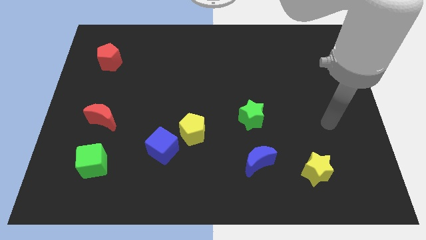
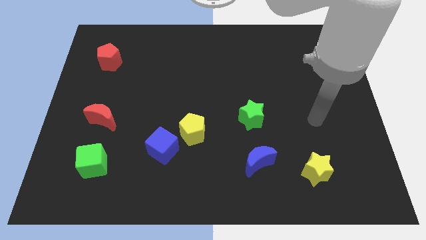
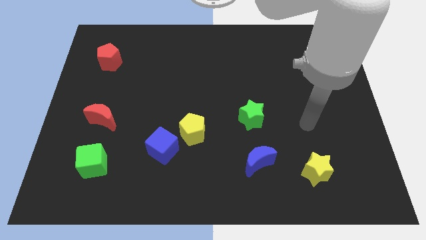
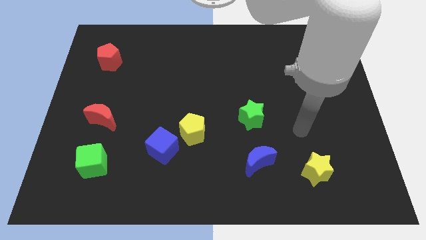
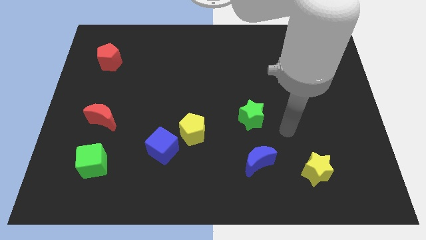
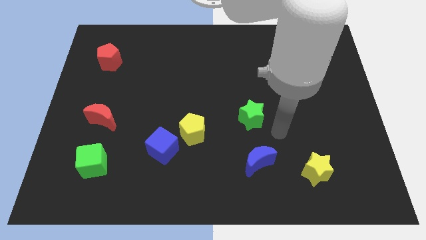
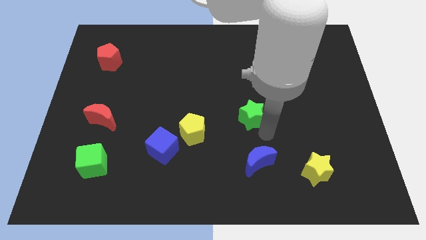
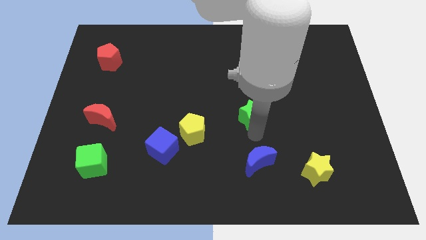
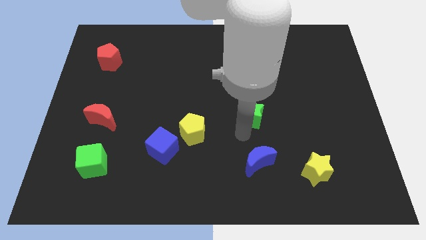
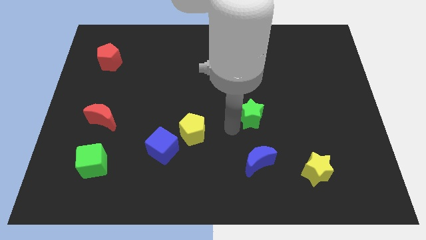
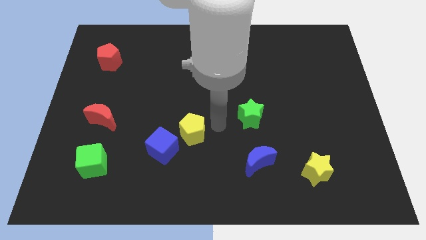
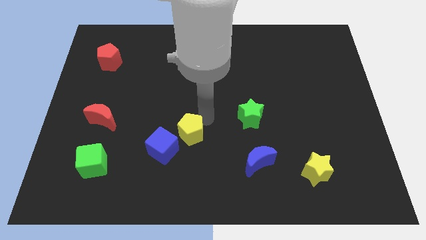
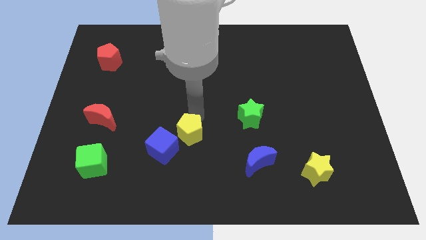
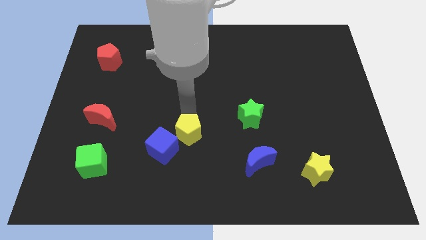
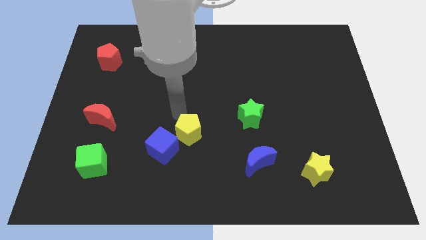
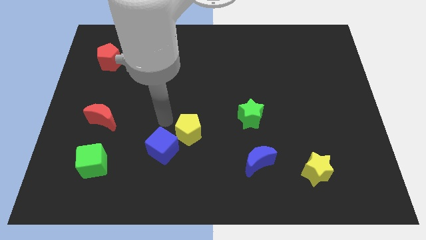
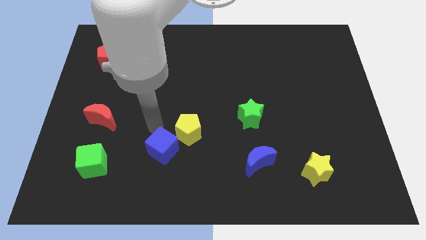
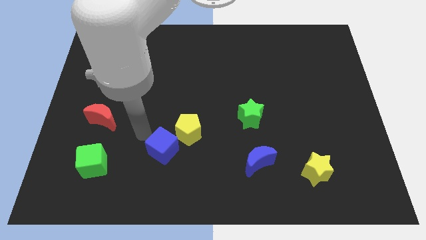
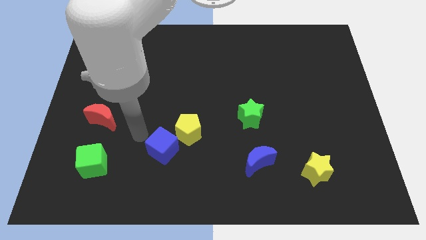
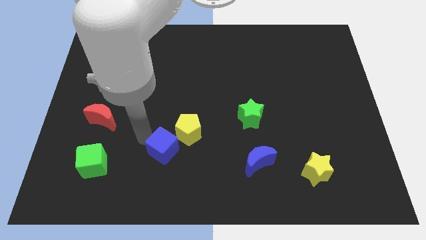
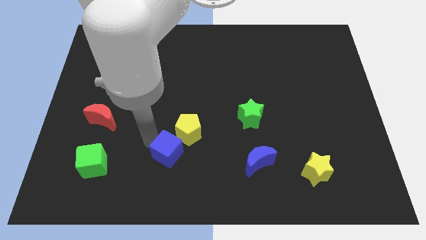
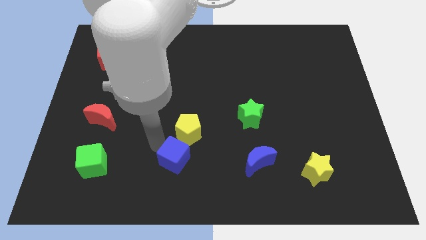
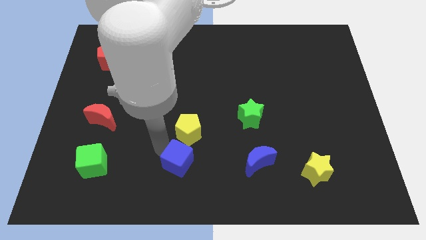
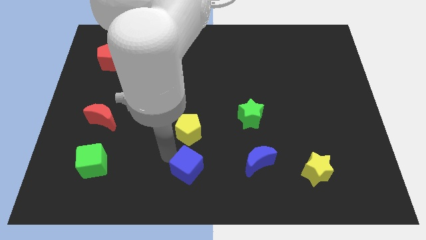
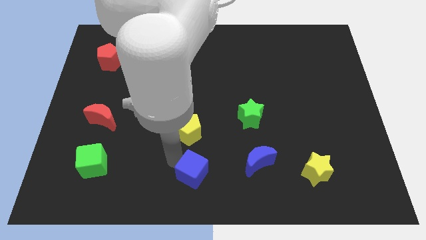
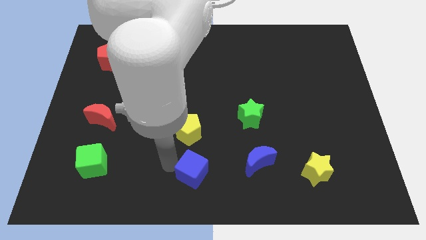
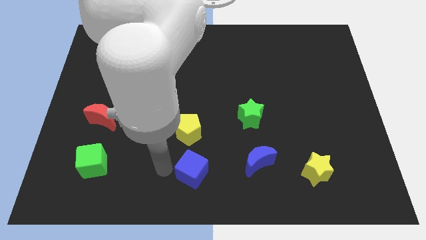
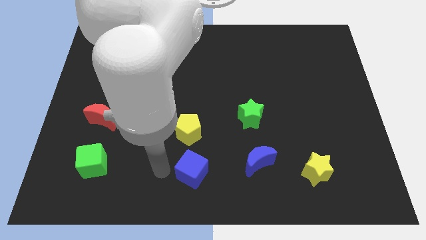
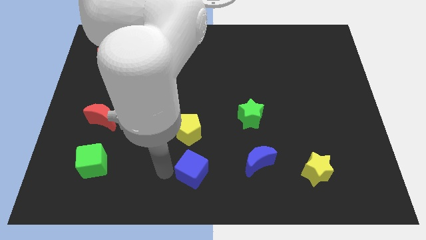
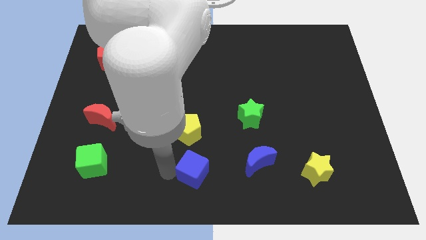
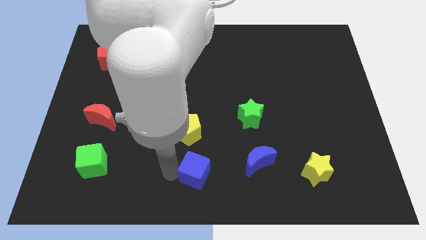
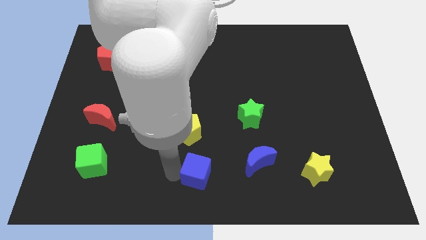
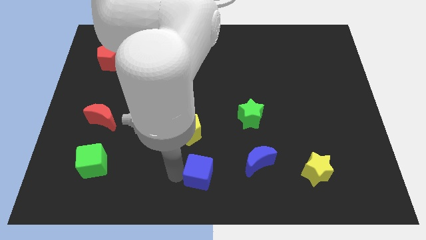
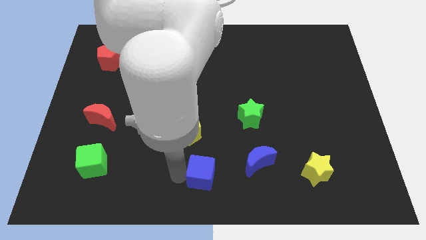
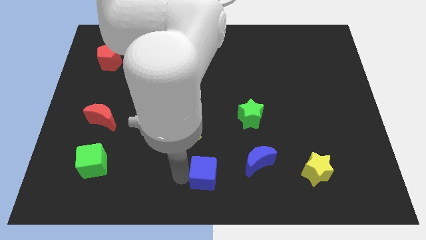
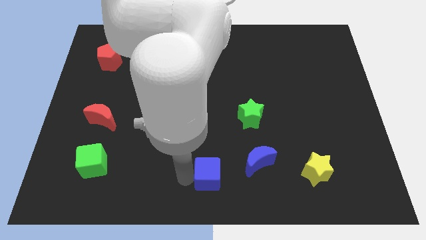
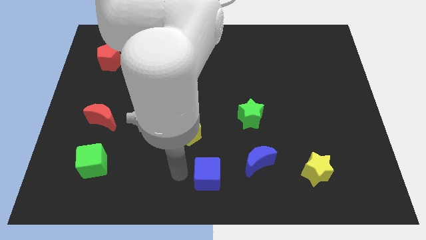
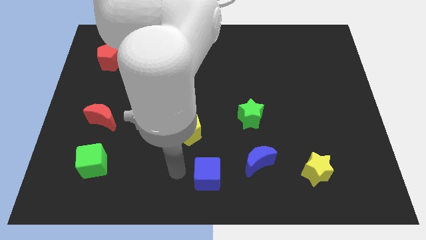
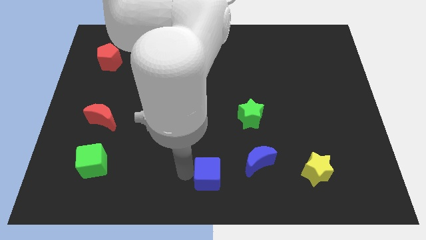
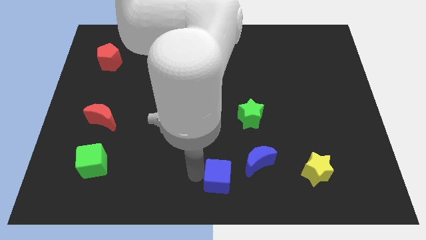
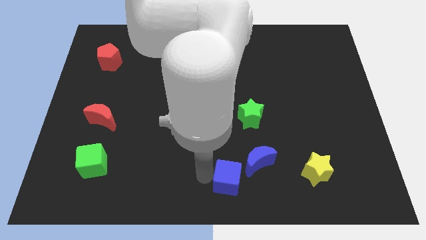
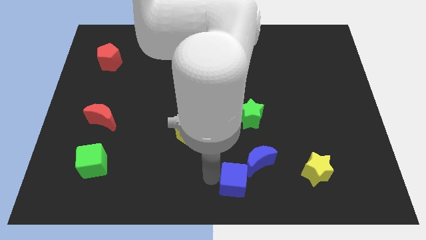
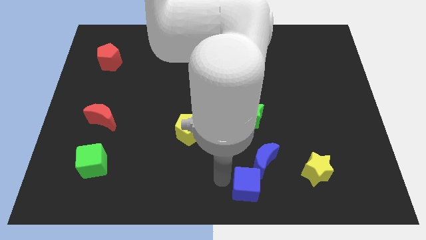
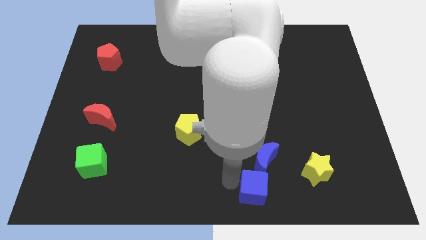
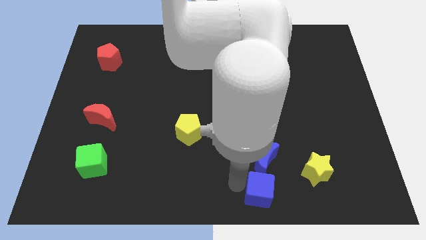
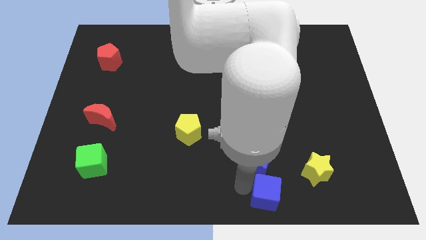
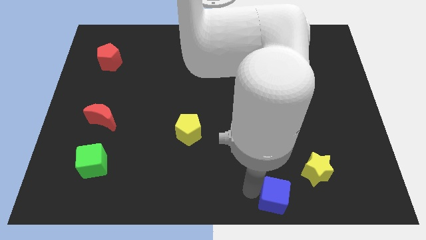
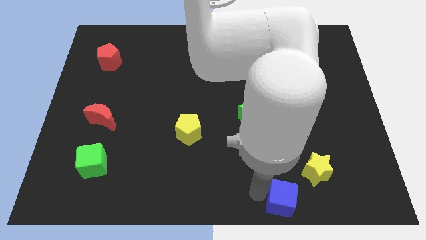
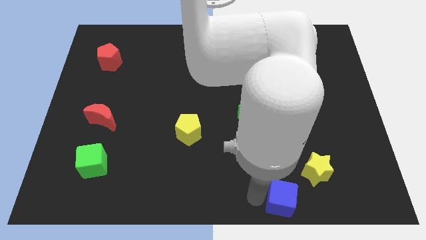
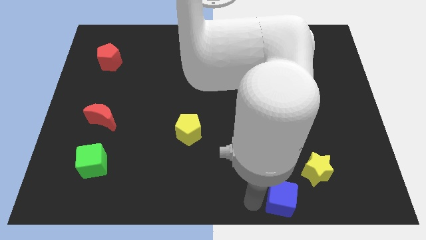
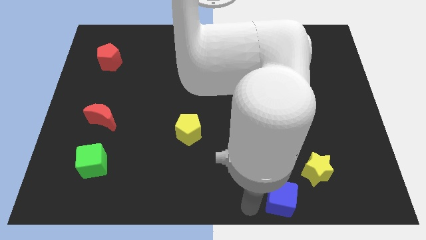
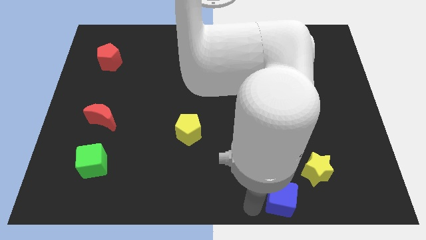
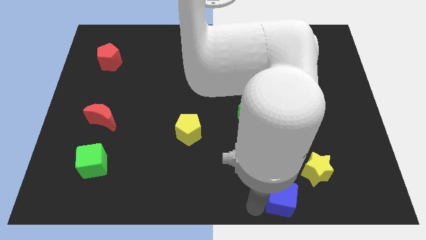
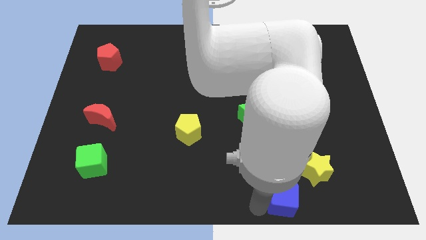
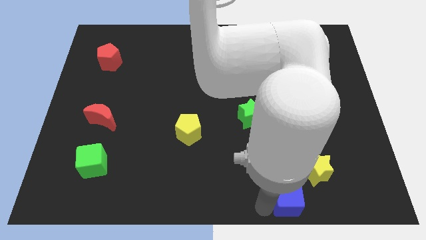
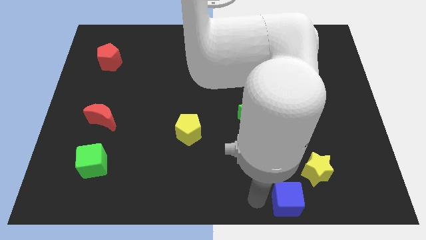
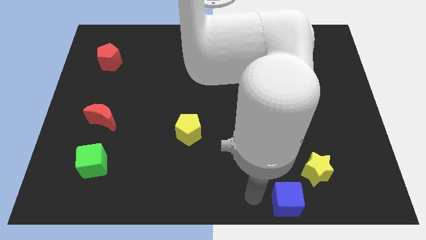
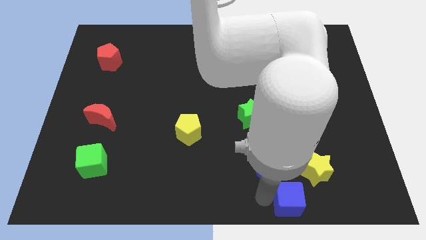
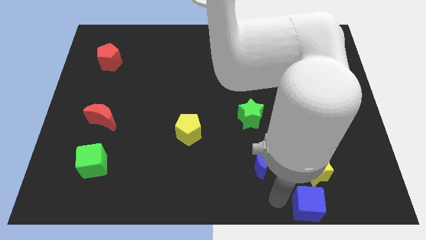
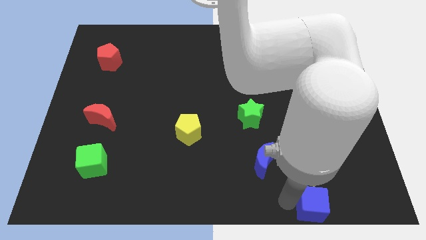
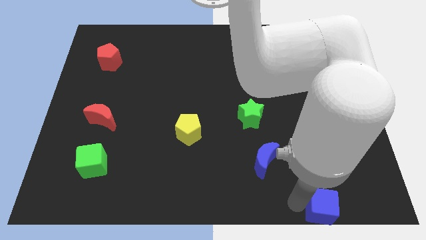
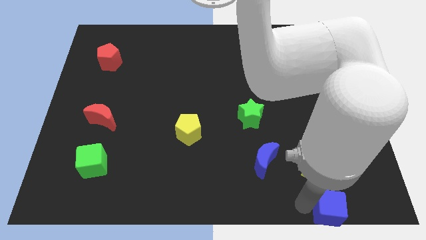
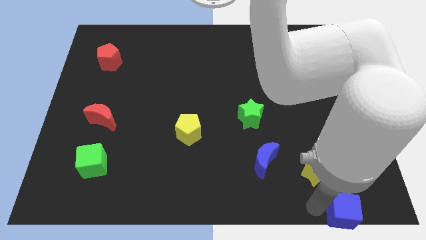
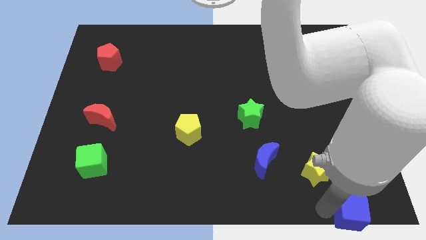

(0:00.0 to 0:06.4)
move the blue cube to the bottom right corner
